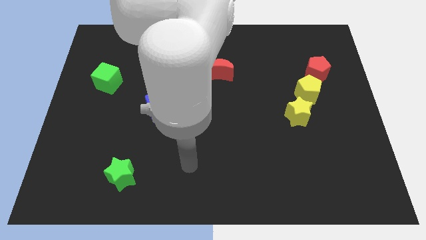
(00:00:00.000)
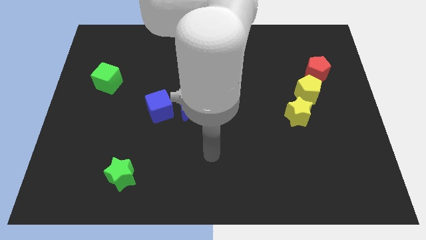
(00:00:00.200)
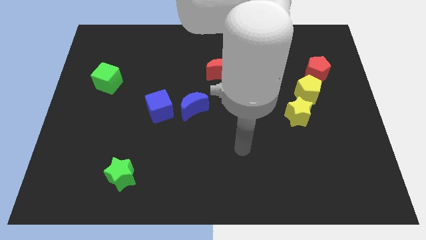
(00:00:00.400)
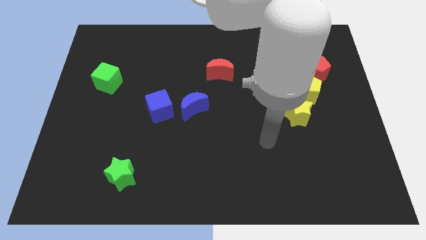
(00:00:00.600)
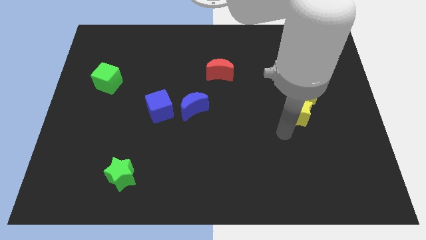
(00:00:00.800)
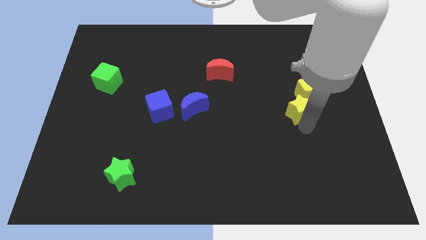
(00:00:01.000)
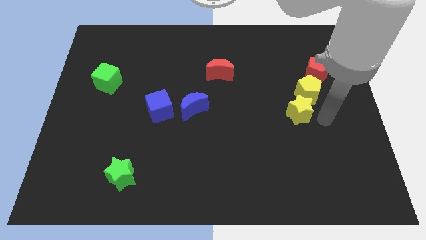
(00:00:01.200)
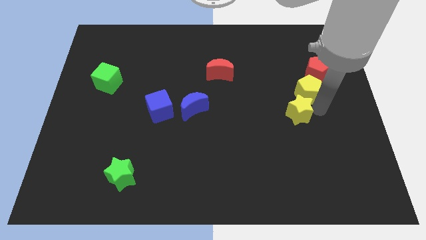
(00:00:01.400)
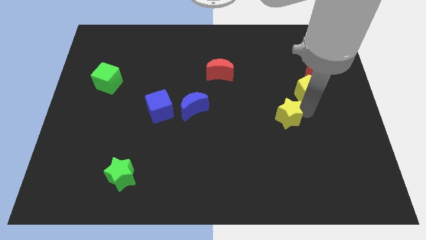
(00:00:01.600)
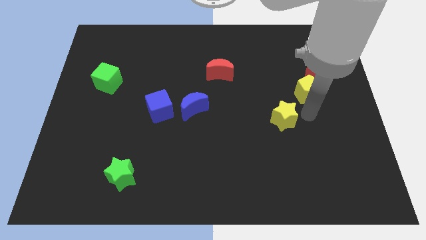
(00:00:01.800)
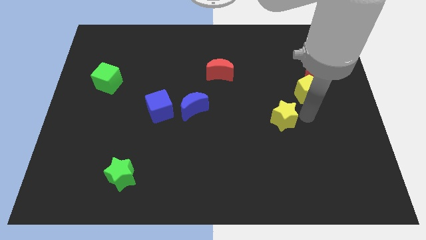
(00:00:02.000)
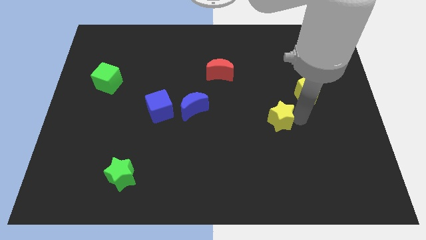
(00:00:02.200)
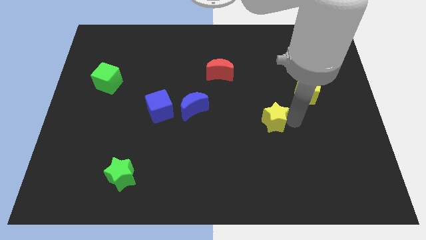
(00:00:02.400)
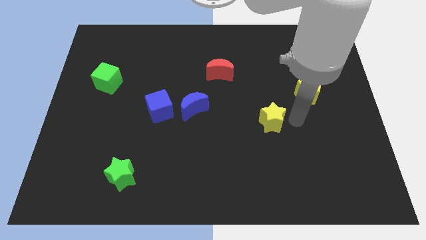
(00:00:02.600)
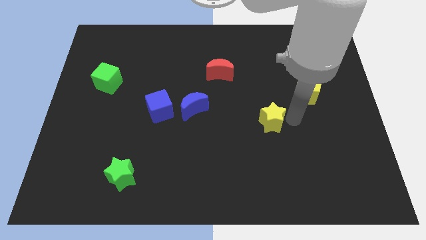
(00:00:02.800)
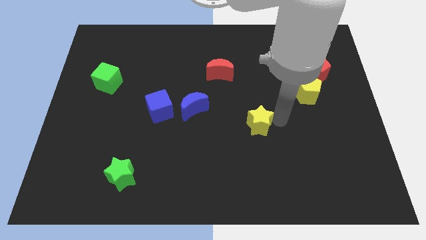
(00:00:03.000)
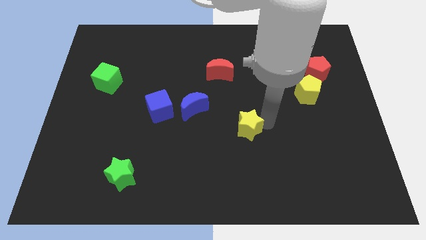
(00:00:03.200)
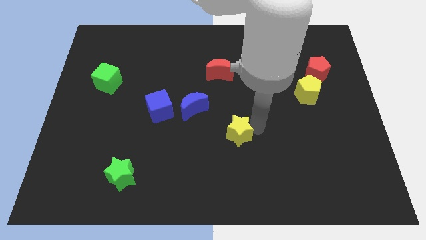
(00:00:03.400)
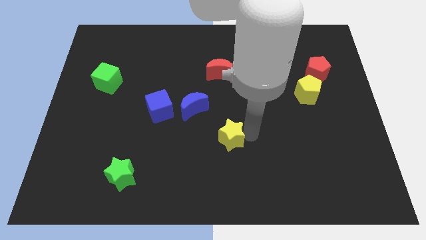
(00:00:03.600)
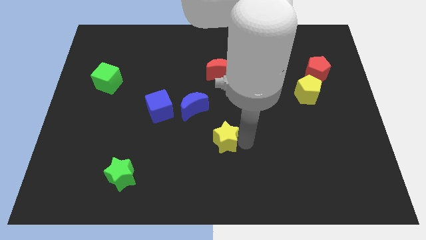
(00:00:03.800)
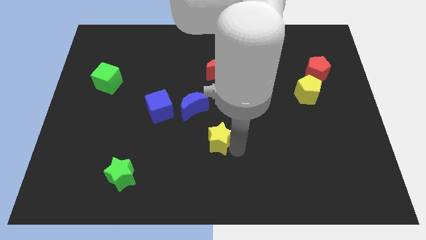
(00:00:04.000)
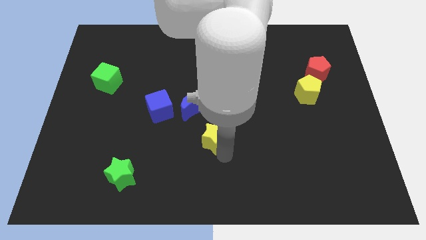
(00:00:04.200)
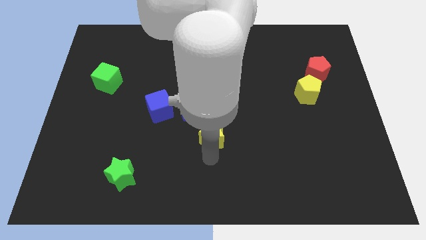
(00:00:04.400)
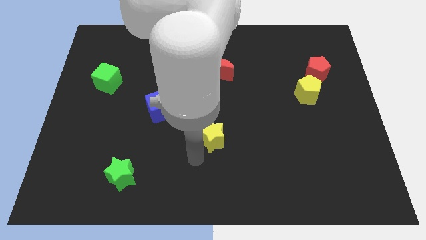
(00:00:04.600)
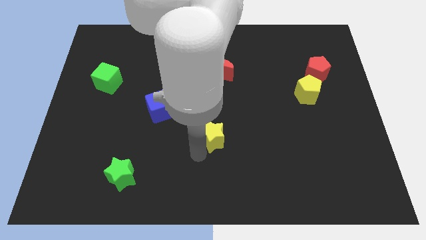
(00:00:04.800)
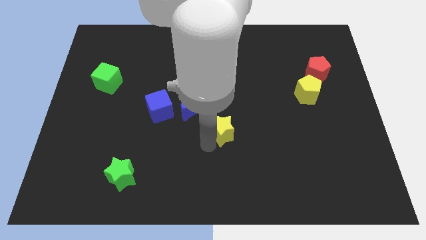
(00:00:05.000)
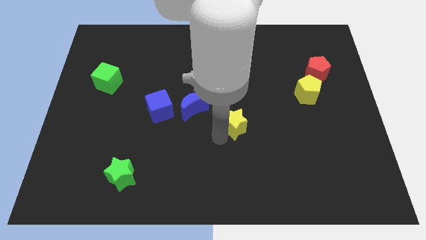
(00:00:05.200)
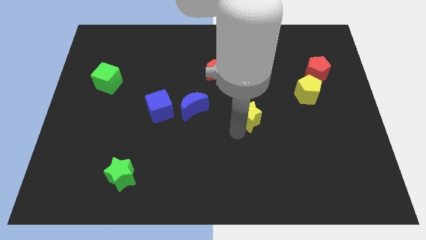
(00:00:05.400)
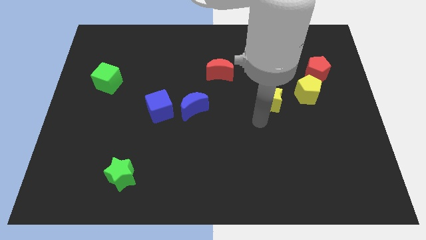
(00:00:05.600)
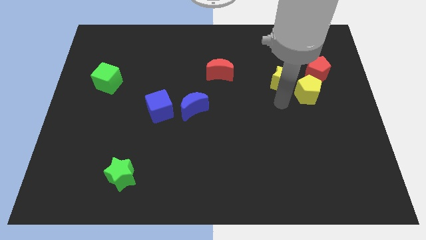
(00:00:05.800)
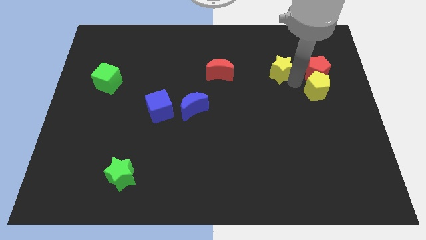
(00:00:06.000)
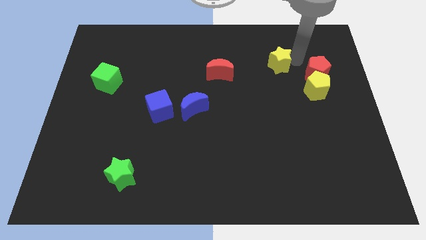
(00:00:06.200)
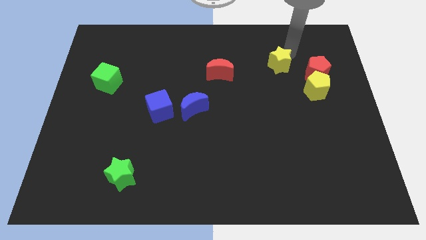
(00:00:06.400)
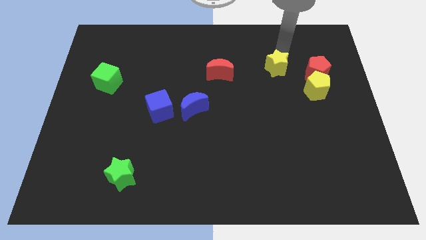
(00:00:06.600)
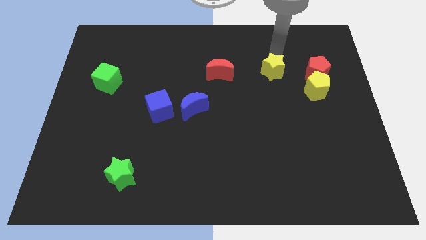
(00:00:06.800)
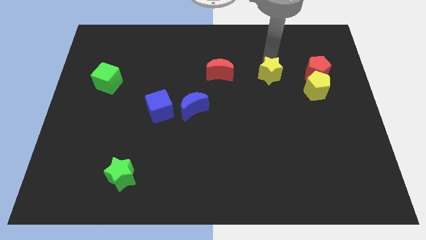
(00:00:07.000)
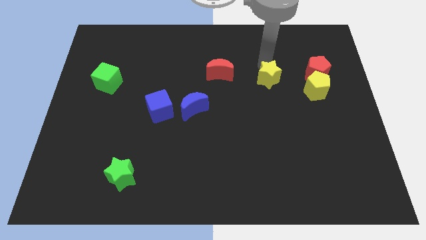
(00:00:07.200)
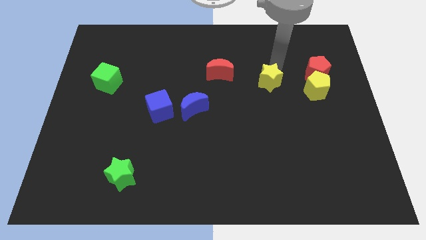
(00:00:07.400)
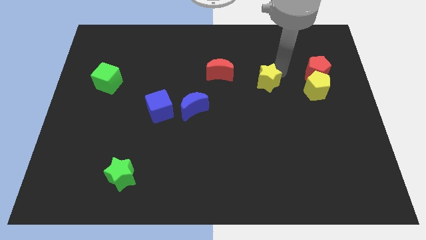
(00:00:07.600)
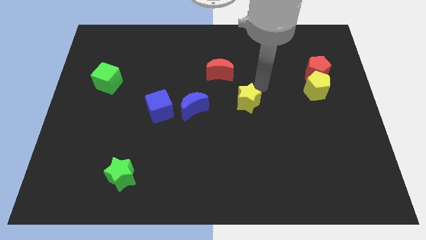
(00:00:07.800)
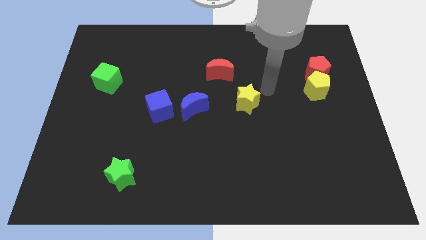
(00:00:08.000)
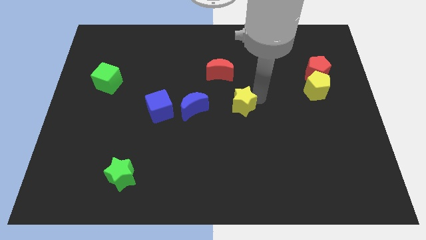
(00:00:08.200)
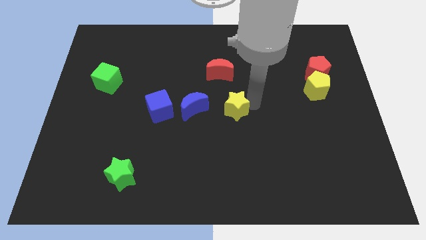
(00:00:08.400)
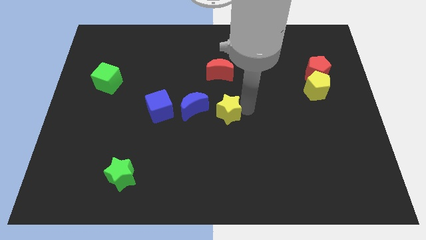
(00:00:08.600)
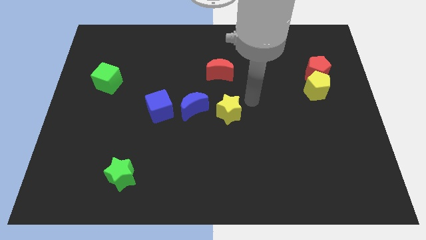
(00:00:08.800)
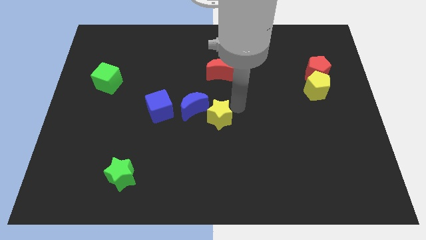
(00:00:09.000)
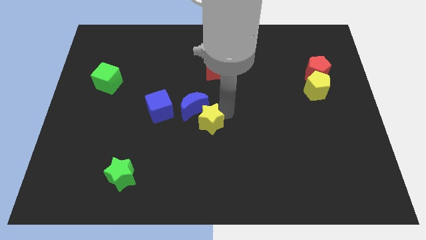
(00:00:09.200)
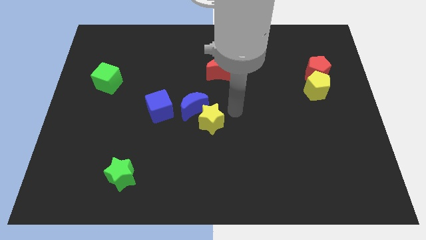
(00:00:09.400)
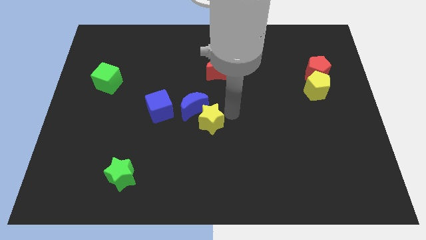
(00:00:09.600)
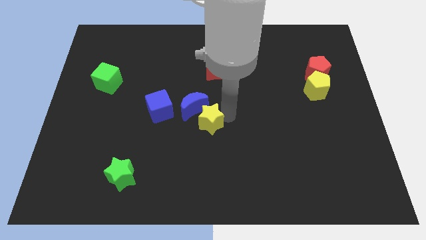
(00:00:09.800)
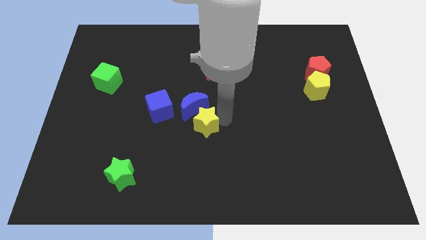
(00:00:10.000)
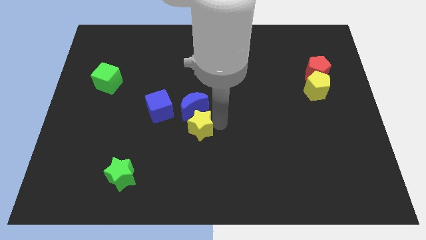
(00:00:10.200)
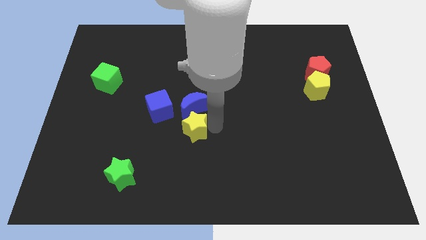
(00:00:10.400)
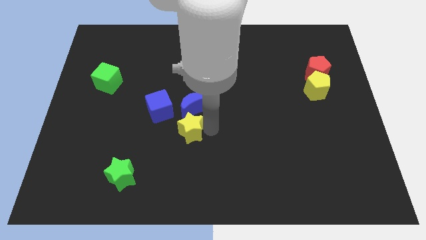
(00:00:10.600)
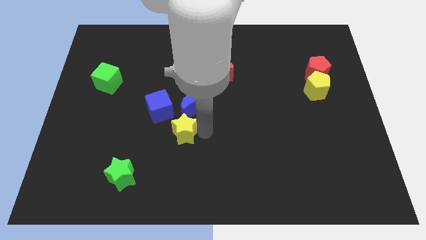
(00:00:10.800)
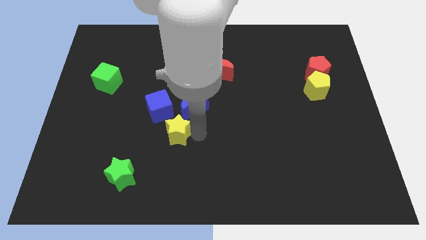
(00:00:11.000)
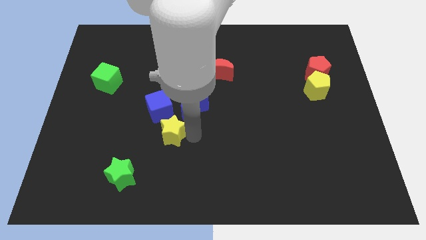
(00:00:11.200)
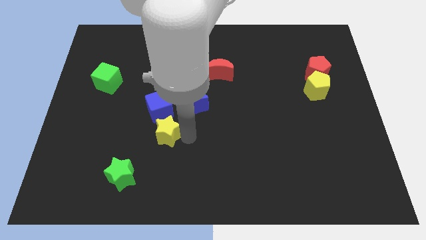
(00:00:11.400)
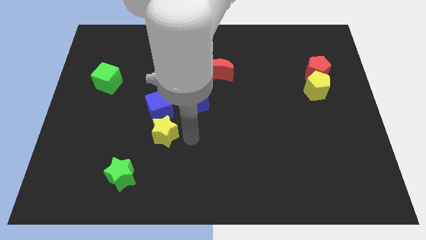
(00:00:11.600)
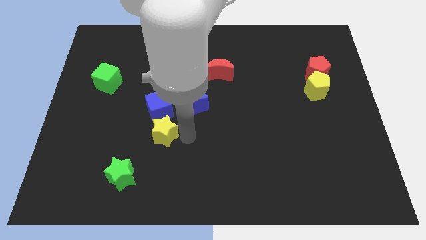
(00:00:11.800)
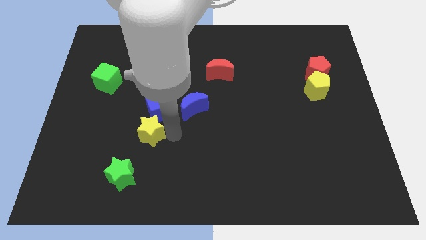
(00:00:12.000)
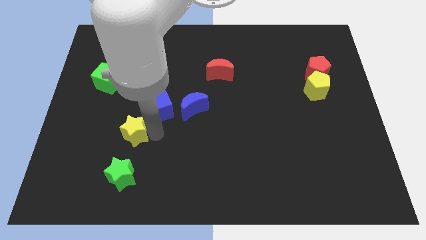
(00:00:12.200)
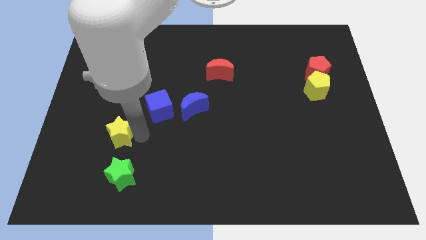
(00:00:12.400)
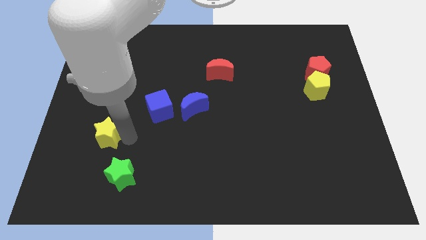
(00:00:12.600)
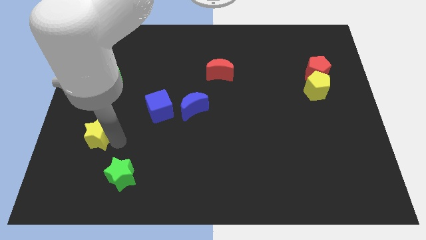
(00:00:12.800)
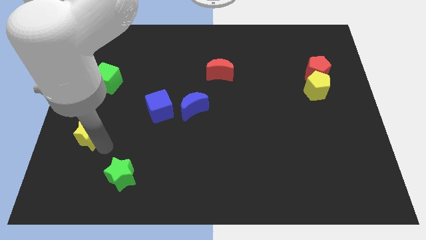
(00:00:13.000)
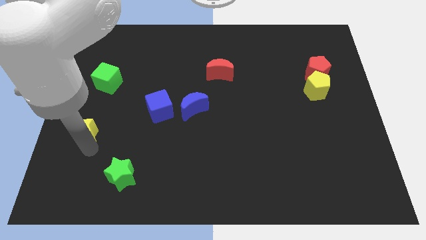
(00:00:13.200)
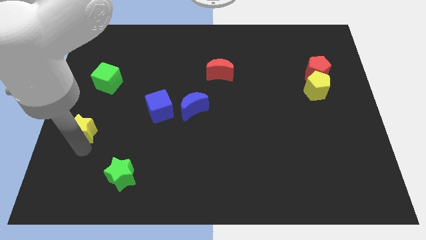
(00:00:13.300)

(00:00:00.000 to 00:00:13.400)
move the yellow star to the center left
